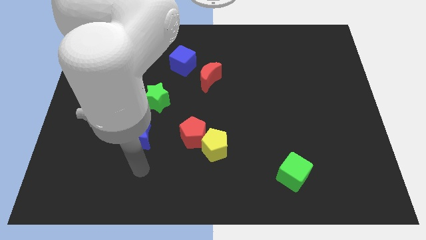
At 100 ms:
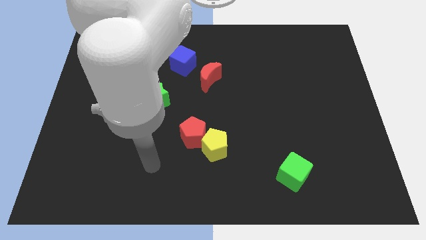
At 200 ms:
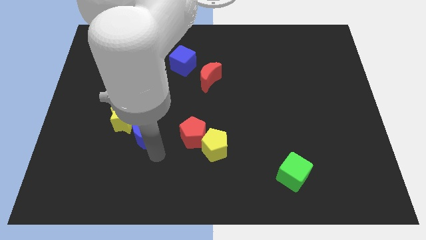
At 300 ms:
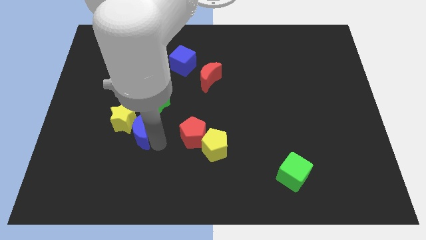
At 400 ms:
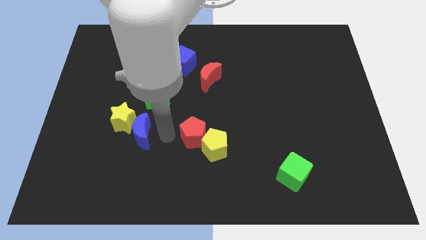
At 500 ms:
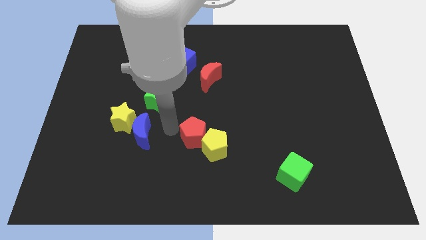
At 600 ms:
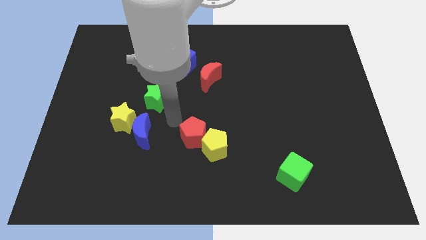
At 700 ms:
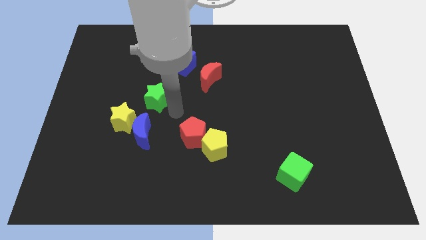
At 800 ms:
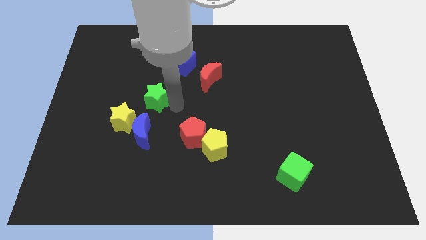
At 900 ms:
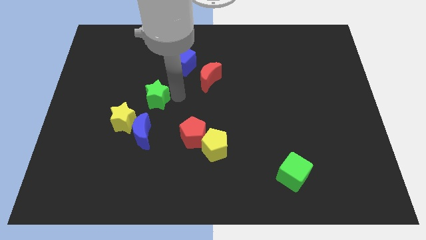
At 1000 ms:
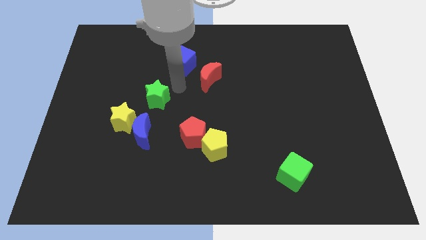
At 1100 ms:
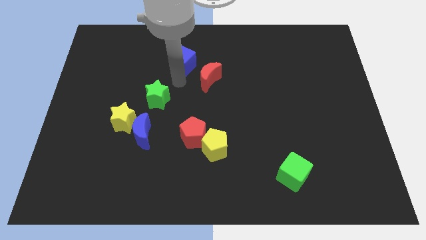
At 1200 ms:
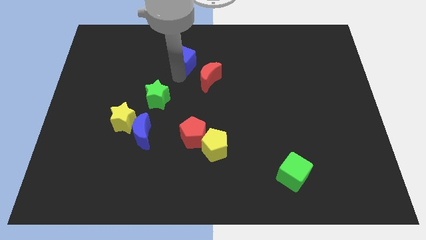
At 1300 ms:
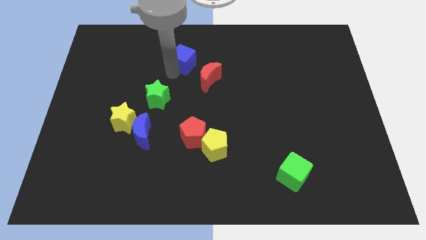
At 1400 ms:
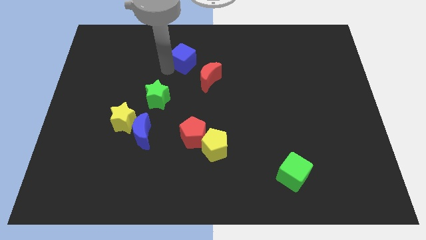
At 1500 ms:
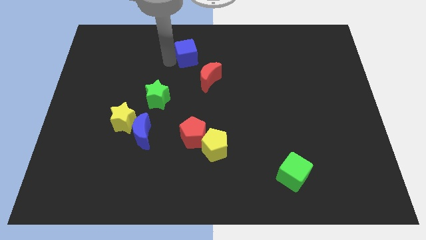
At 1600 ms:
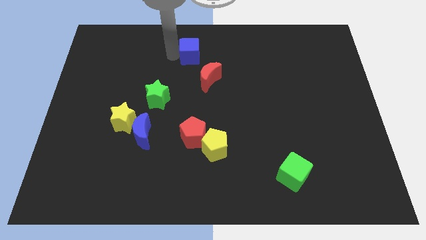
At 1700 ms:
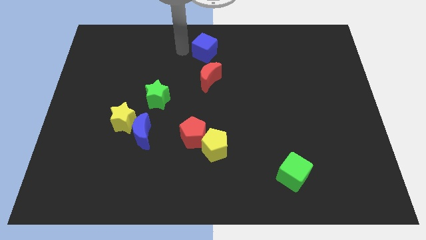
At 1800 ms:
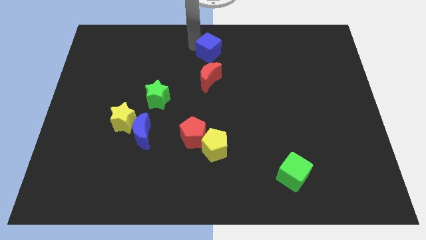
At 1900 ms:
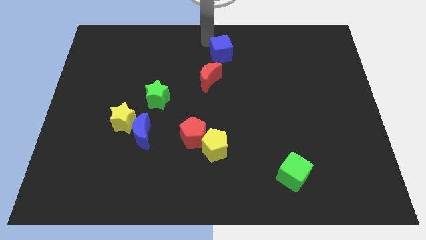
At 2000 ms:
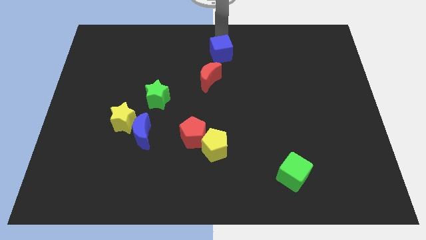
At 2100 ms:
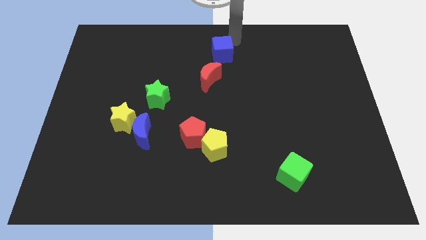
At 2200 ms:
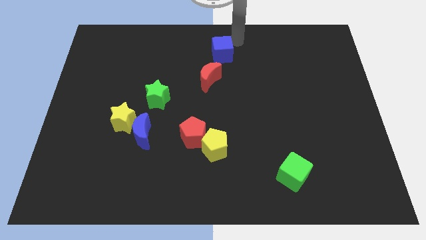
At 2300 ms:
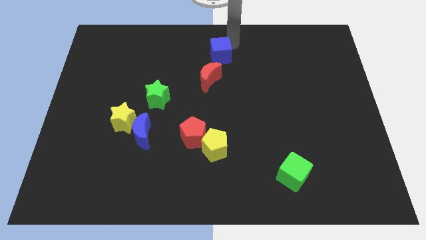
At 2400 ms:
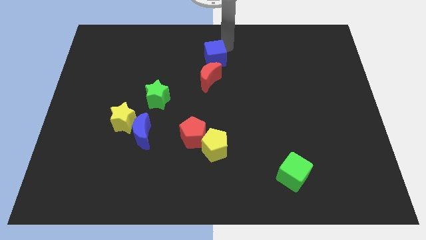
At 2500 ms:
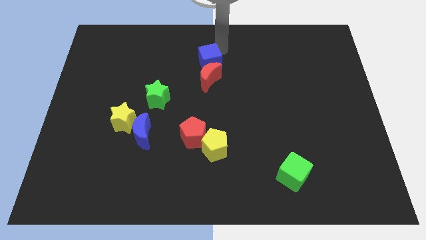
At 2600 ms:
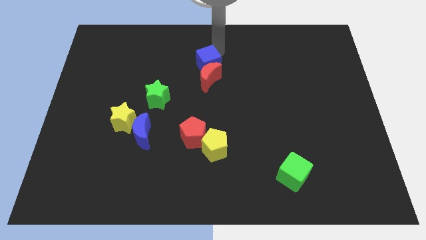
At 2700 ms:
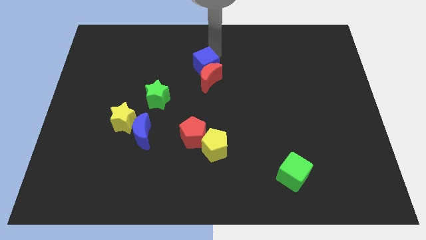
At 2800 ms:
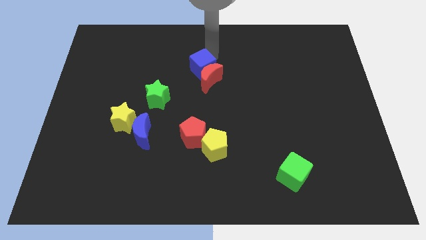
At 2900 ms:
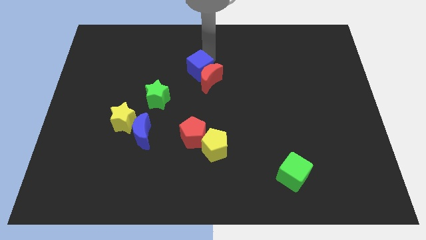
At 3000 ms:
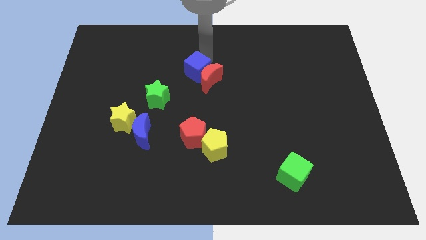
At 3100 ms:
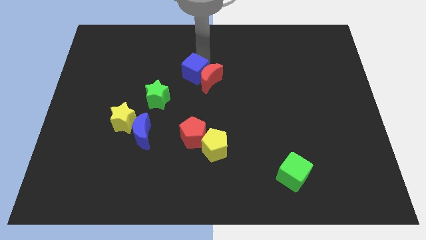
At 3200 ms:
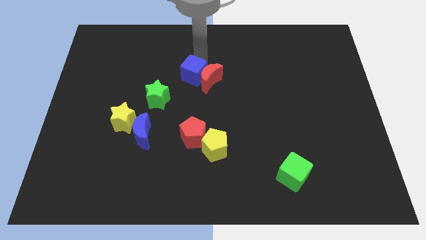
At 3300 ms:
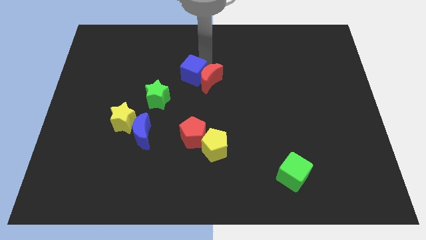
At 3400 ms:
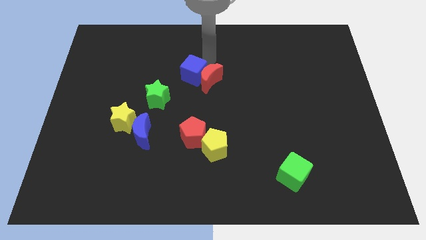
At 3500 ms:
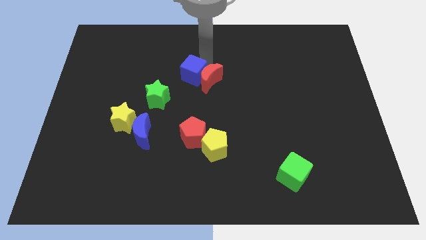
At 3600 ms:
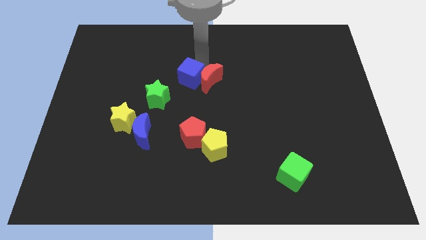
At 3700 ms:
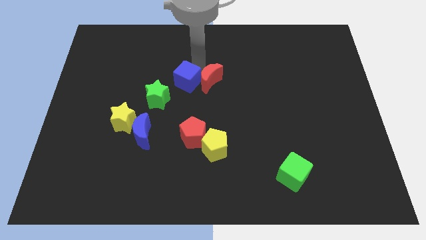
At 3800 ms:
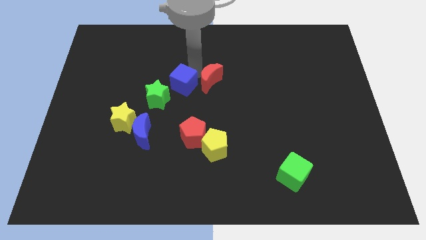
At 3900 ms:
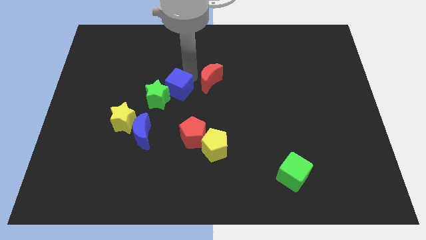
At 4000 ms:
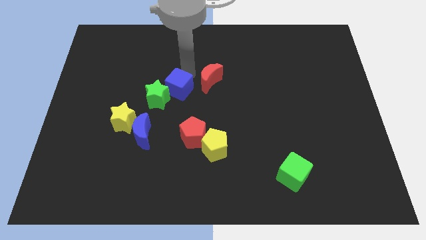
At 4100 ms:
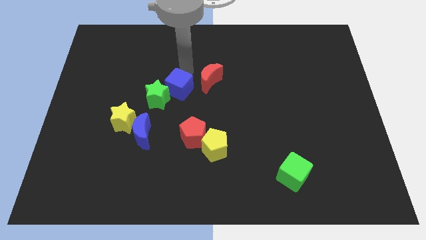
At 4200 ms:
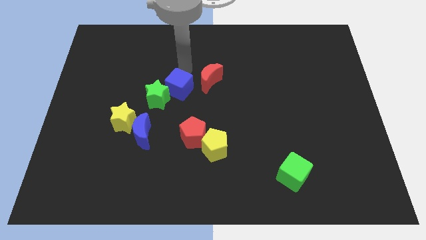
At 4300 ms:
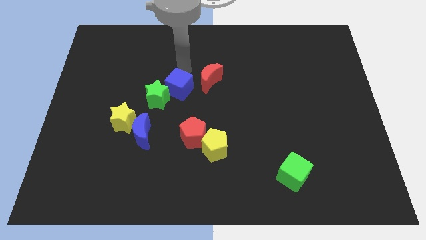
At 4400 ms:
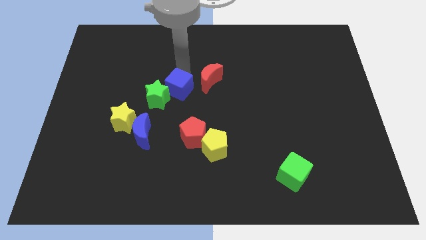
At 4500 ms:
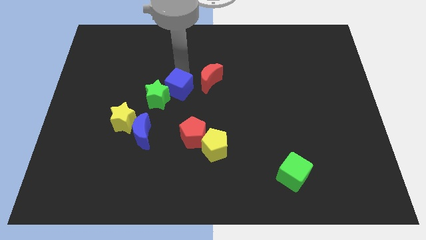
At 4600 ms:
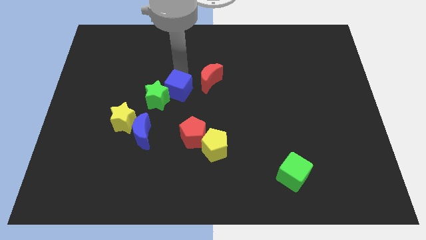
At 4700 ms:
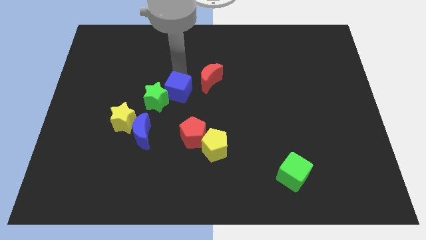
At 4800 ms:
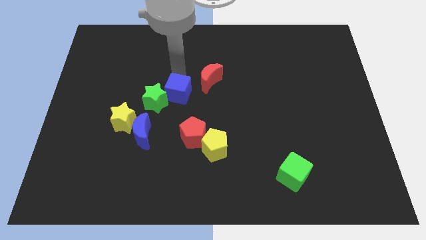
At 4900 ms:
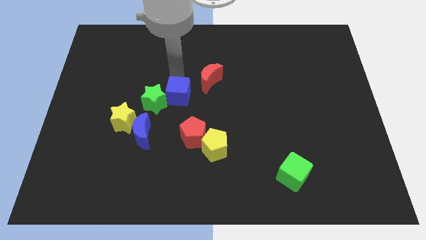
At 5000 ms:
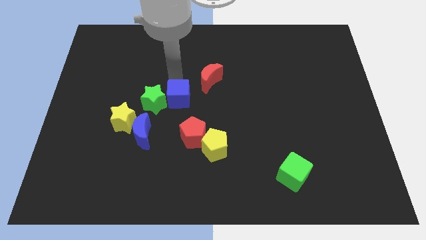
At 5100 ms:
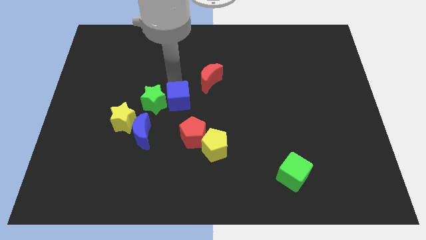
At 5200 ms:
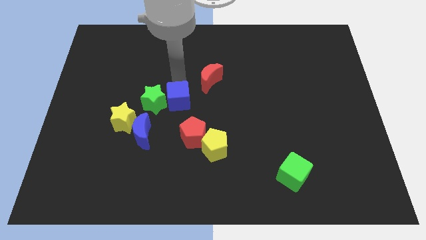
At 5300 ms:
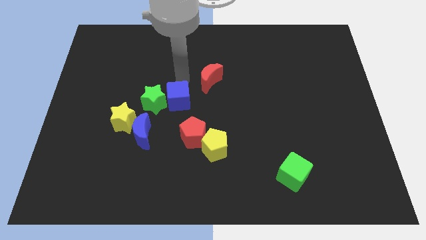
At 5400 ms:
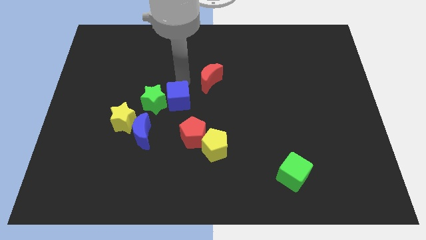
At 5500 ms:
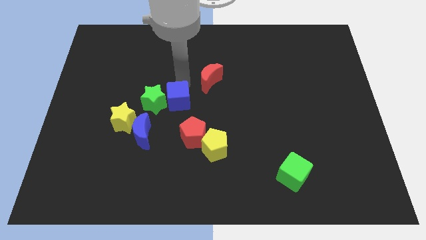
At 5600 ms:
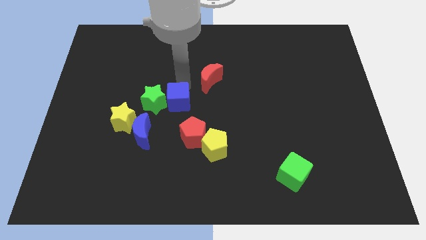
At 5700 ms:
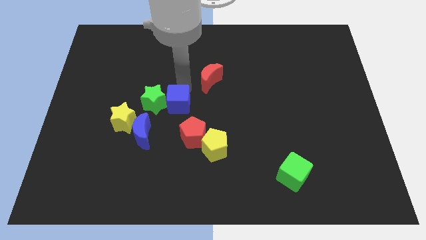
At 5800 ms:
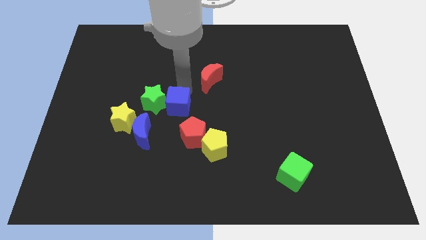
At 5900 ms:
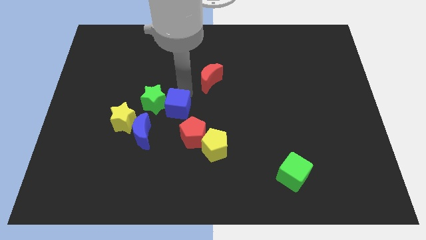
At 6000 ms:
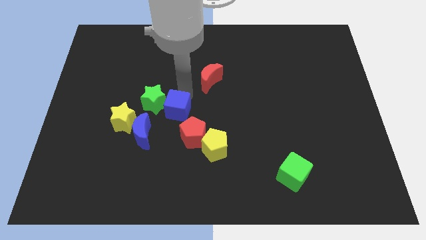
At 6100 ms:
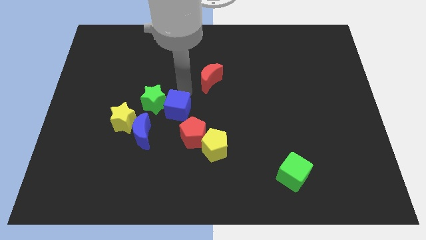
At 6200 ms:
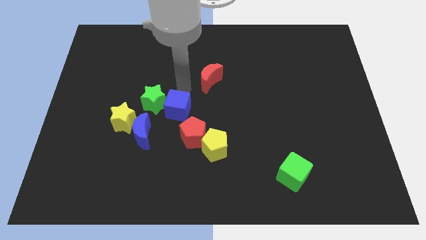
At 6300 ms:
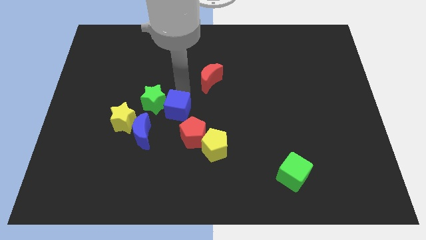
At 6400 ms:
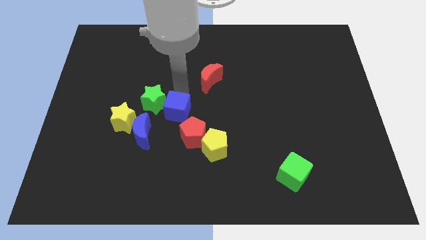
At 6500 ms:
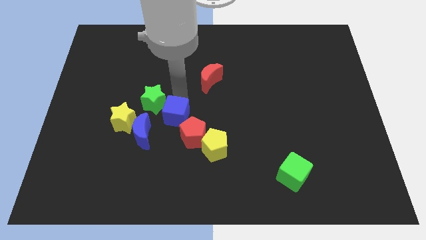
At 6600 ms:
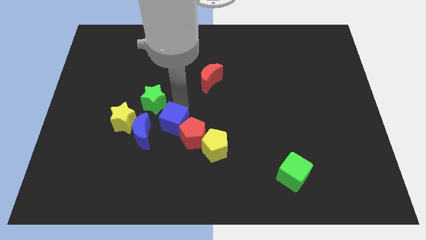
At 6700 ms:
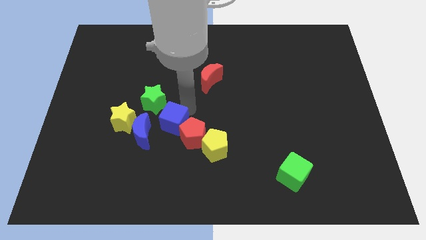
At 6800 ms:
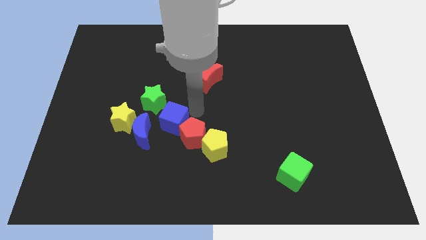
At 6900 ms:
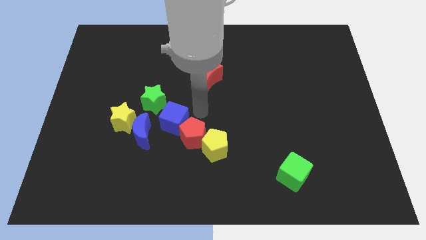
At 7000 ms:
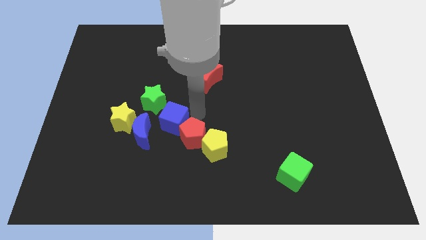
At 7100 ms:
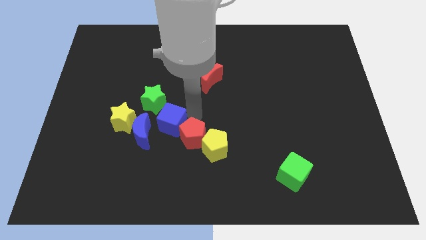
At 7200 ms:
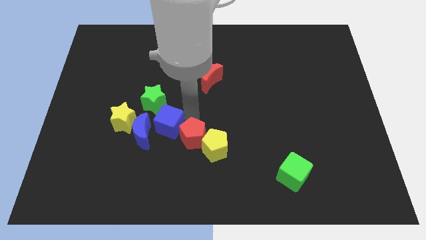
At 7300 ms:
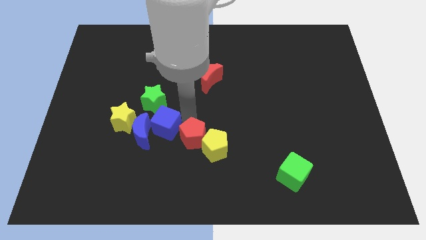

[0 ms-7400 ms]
push the blue cube close to the blue moon
